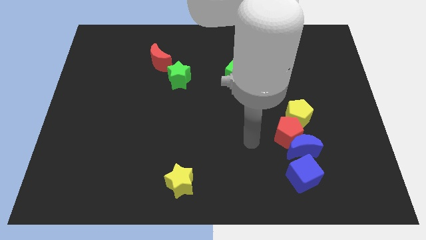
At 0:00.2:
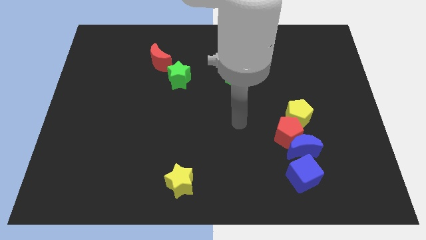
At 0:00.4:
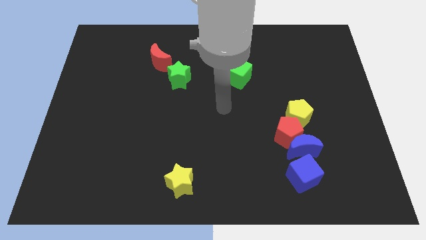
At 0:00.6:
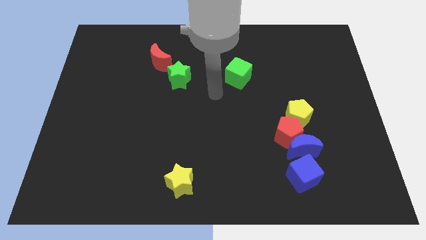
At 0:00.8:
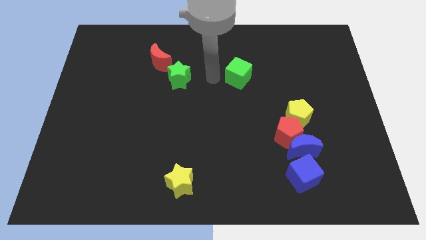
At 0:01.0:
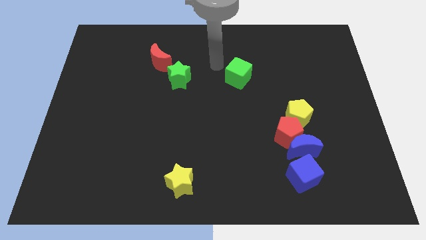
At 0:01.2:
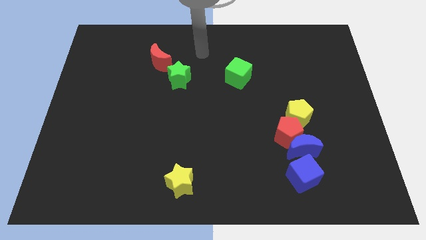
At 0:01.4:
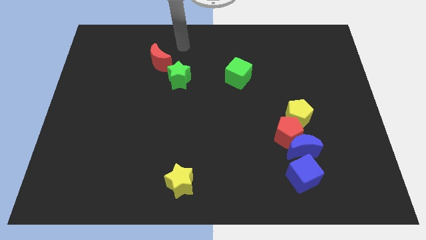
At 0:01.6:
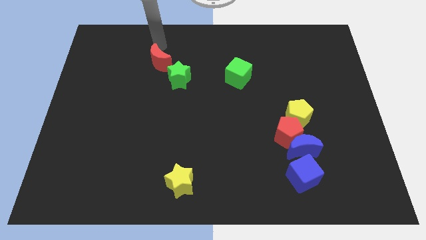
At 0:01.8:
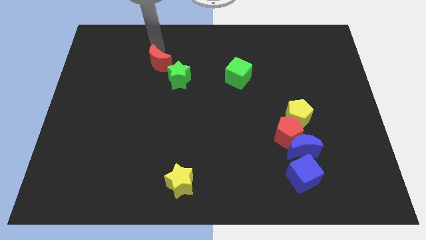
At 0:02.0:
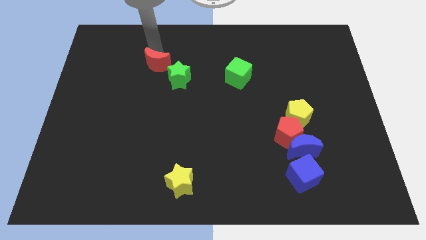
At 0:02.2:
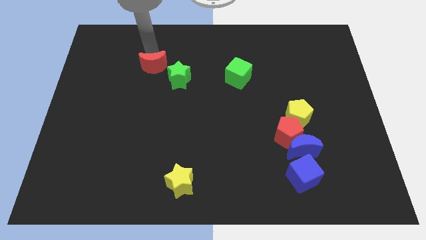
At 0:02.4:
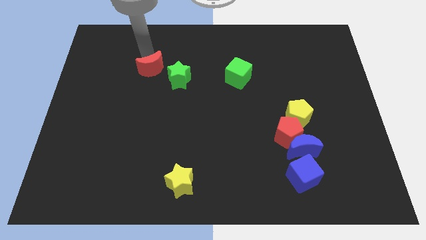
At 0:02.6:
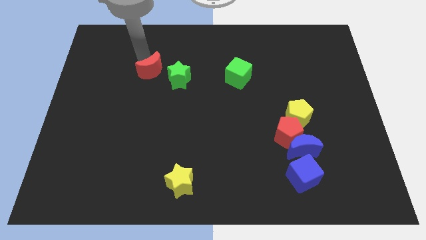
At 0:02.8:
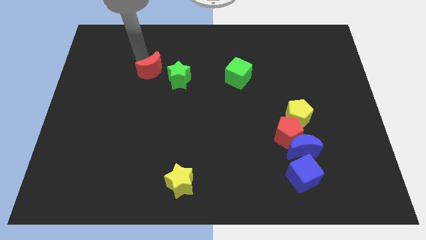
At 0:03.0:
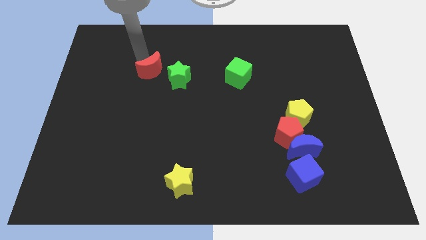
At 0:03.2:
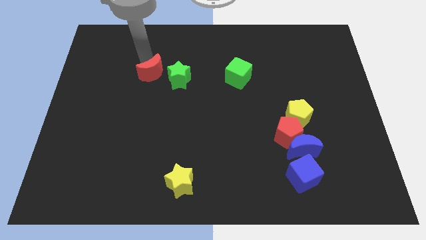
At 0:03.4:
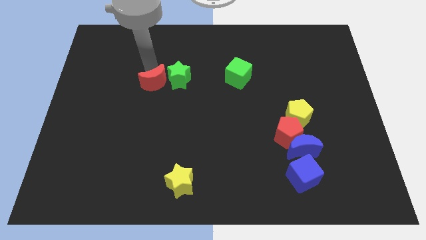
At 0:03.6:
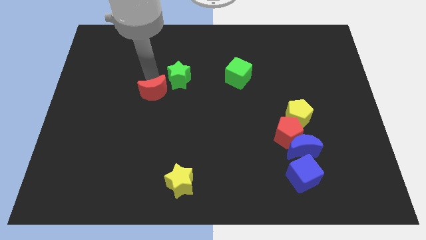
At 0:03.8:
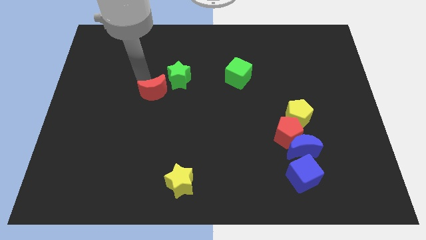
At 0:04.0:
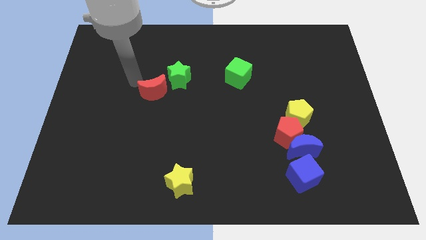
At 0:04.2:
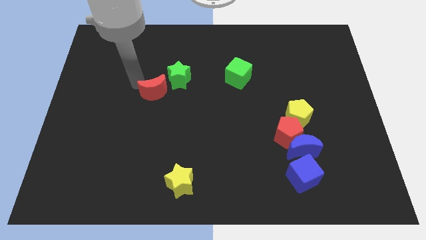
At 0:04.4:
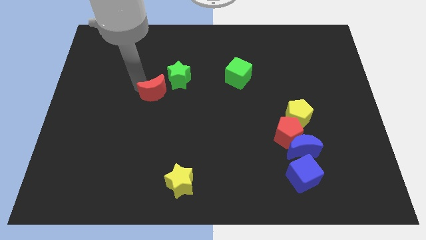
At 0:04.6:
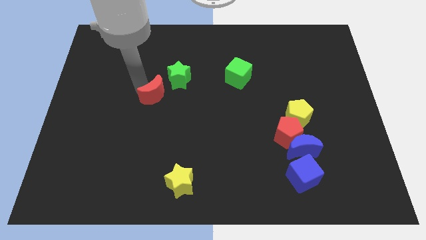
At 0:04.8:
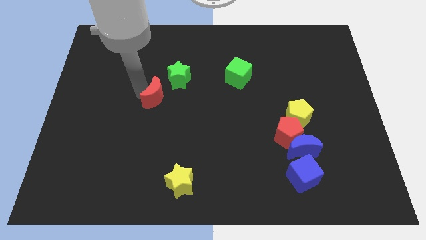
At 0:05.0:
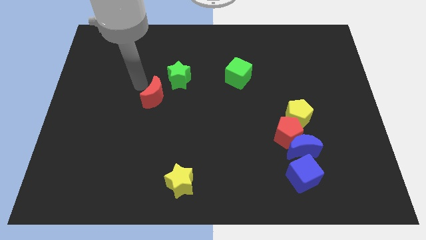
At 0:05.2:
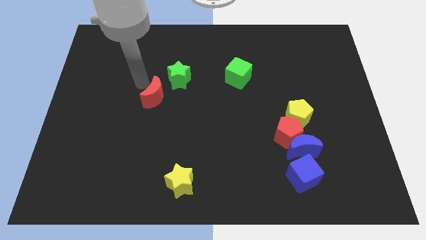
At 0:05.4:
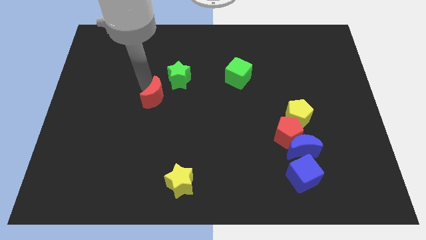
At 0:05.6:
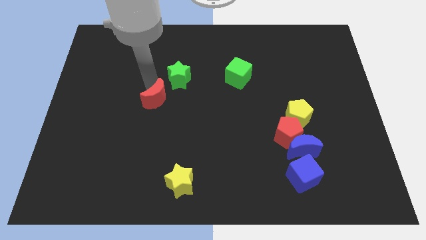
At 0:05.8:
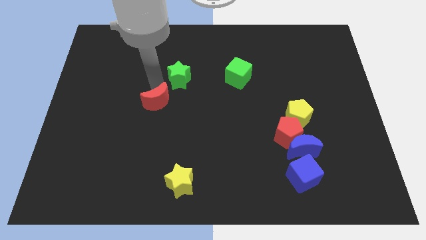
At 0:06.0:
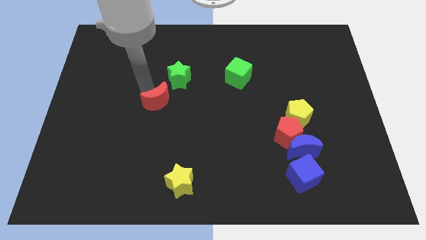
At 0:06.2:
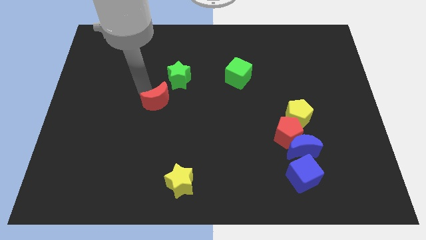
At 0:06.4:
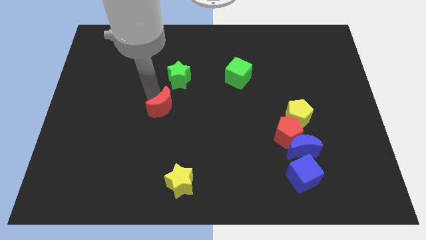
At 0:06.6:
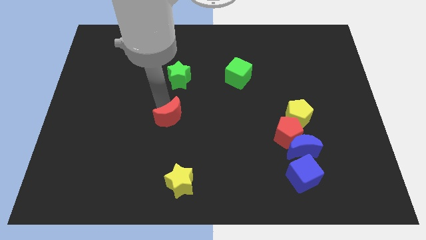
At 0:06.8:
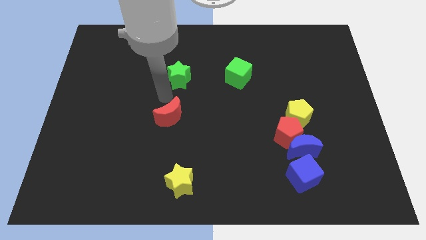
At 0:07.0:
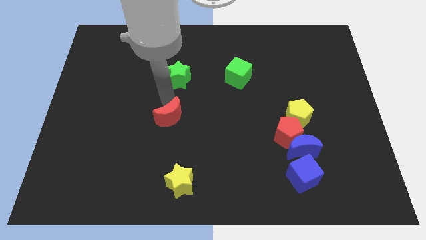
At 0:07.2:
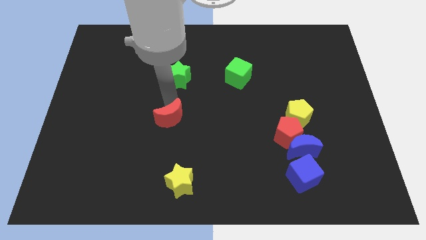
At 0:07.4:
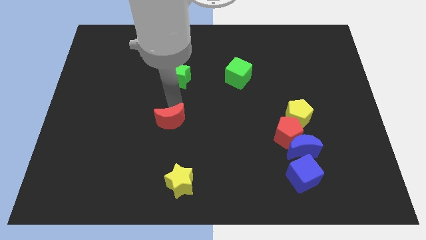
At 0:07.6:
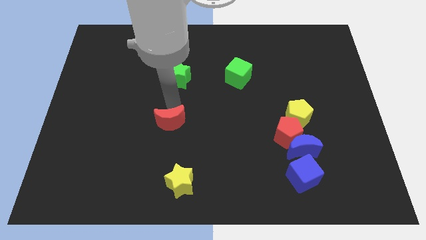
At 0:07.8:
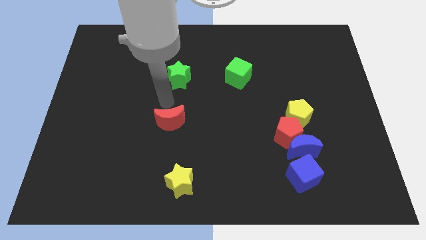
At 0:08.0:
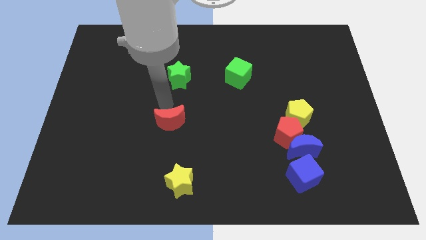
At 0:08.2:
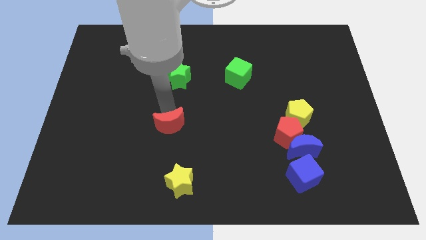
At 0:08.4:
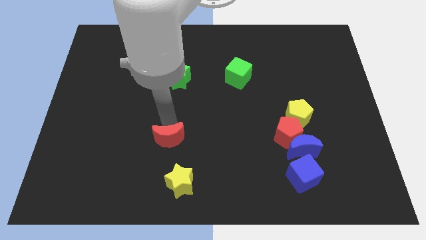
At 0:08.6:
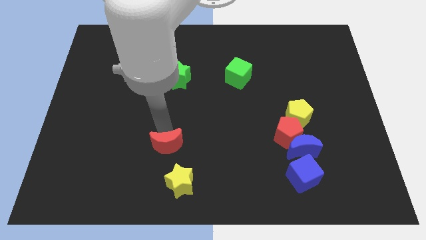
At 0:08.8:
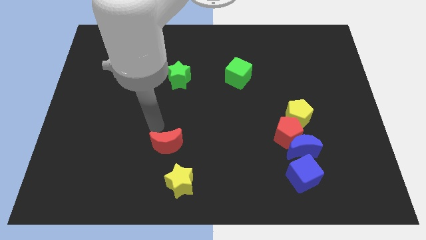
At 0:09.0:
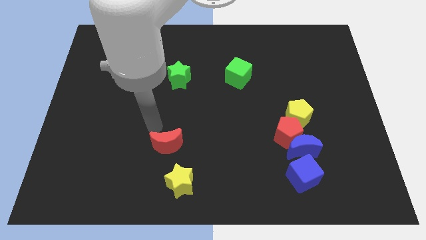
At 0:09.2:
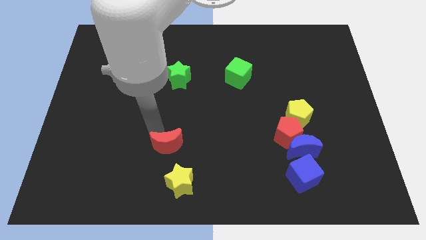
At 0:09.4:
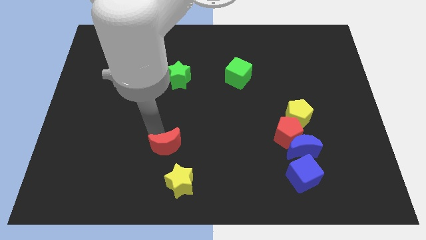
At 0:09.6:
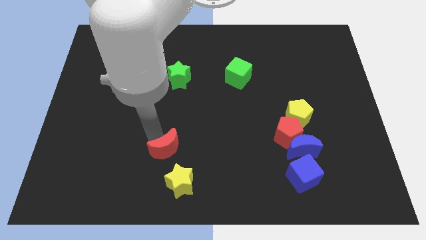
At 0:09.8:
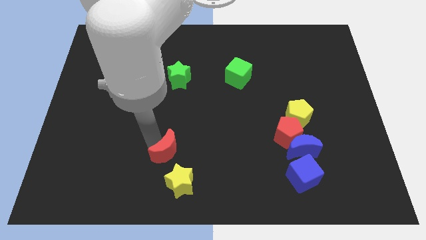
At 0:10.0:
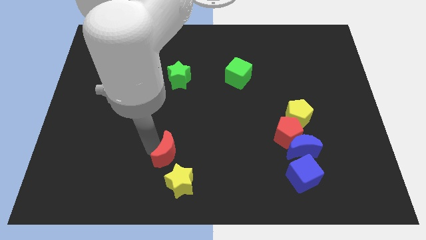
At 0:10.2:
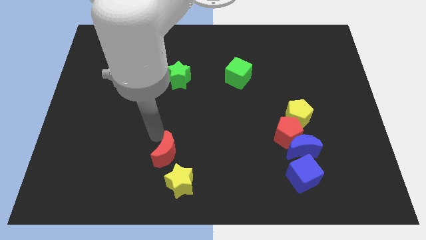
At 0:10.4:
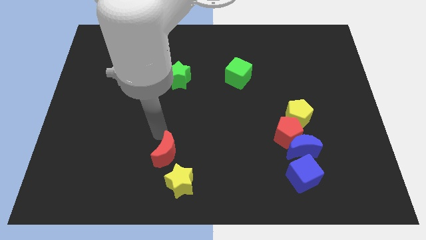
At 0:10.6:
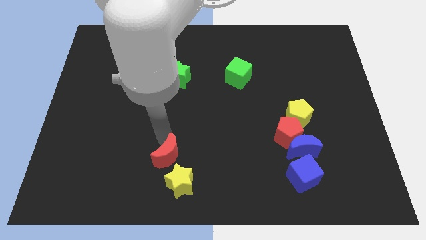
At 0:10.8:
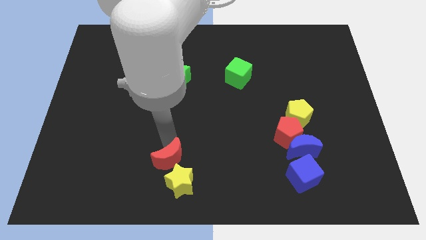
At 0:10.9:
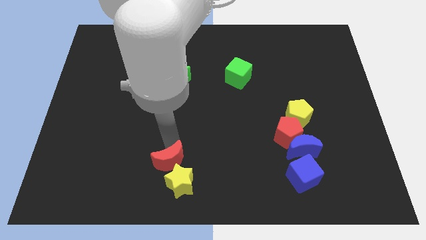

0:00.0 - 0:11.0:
slide the red moon next to the yellow star

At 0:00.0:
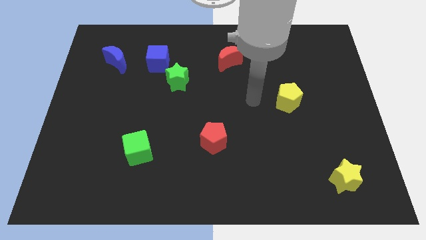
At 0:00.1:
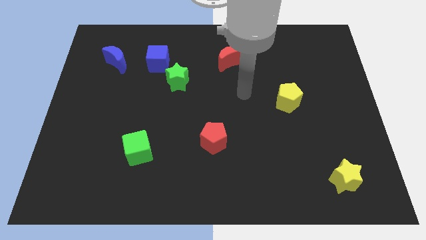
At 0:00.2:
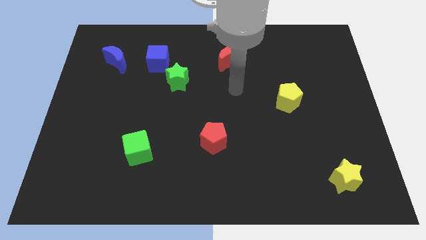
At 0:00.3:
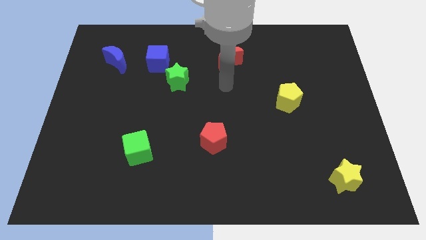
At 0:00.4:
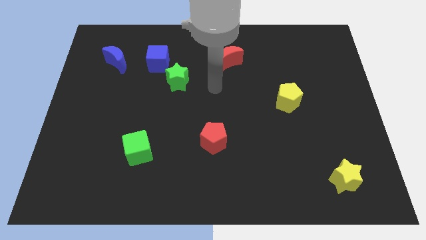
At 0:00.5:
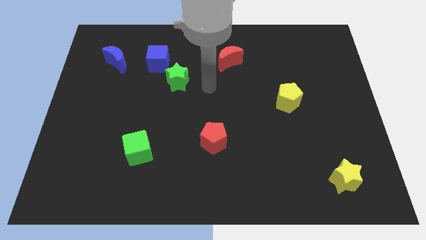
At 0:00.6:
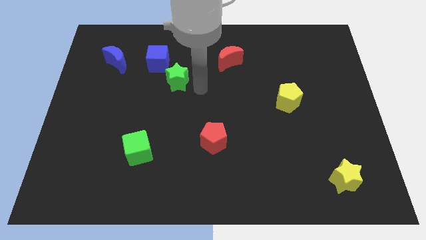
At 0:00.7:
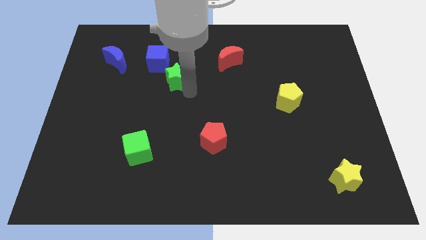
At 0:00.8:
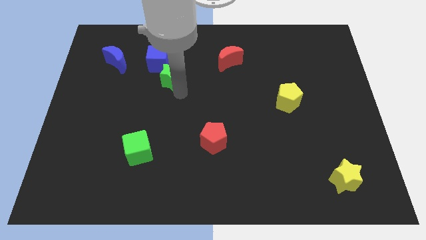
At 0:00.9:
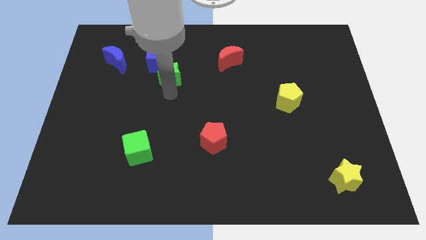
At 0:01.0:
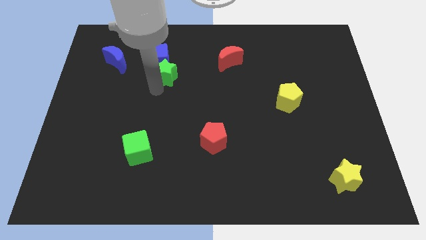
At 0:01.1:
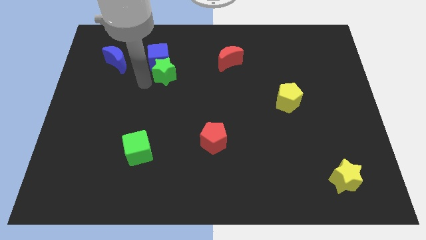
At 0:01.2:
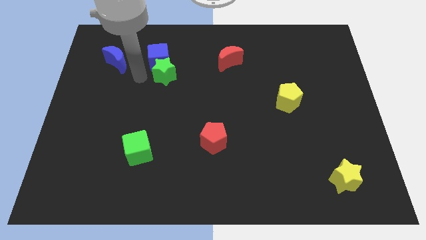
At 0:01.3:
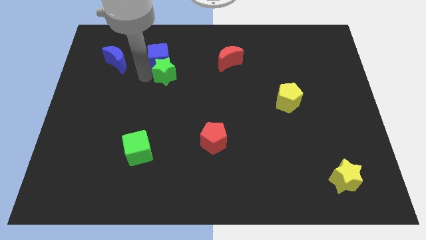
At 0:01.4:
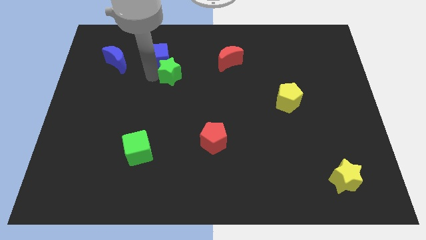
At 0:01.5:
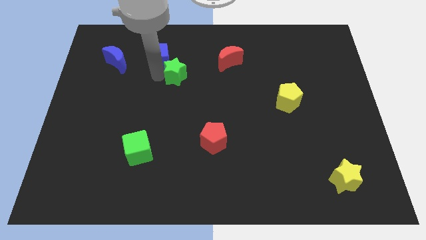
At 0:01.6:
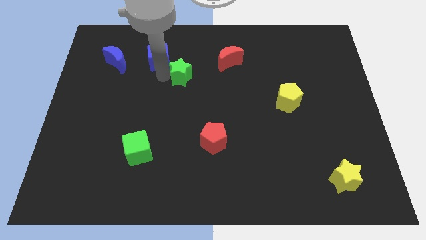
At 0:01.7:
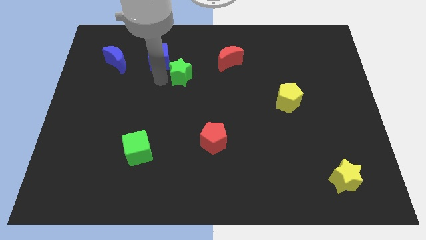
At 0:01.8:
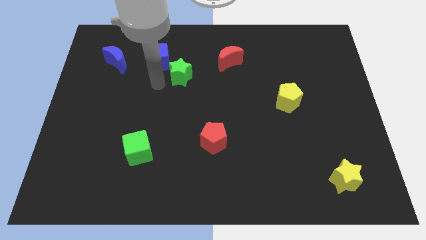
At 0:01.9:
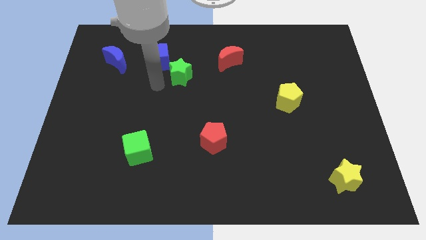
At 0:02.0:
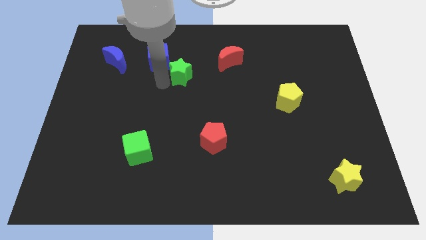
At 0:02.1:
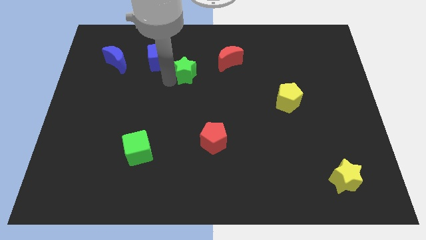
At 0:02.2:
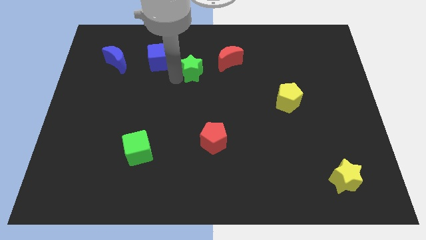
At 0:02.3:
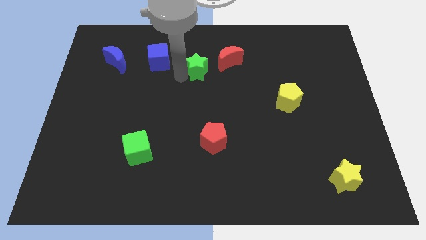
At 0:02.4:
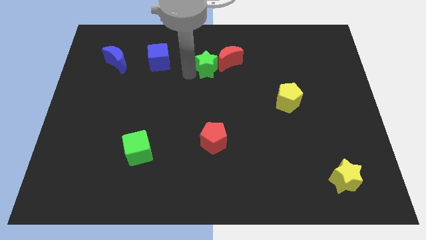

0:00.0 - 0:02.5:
push the green star to the red moon

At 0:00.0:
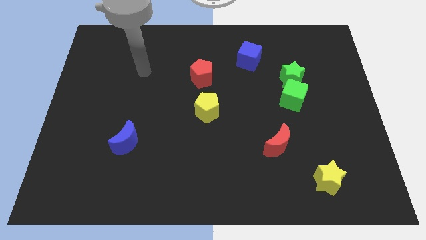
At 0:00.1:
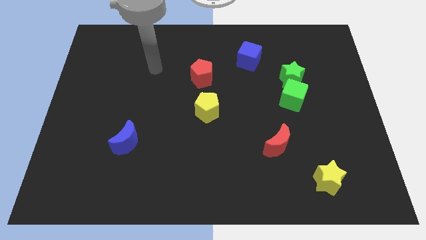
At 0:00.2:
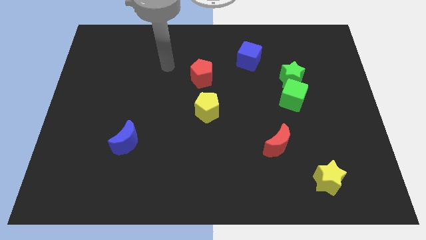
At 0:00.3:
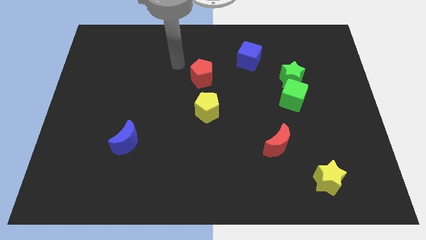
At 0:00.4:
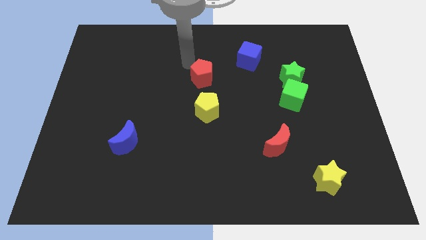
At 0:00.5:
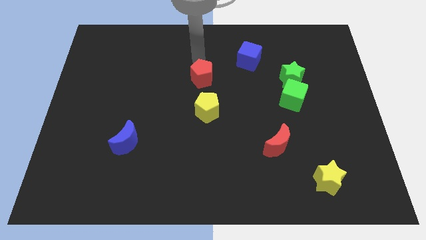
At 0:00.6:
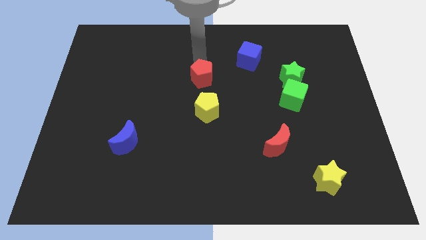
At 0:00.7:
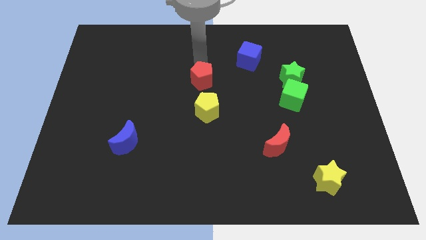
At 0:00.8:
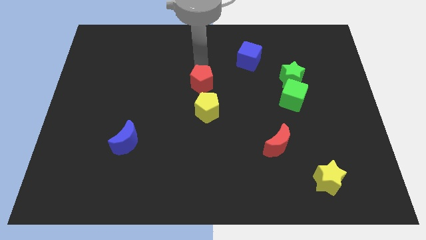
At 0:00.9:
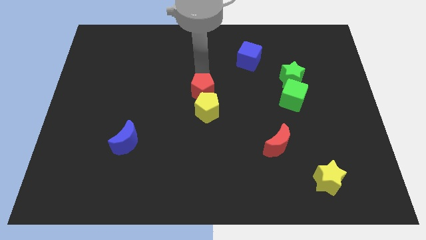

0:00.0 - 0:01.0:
move the red pentagon close to the yellow pentagon
